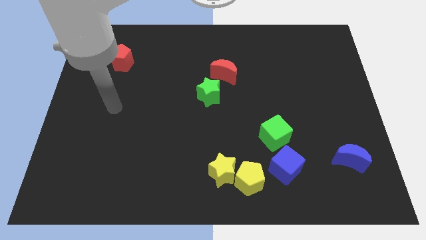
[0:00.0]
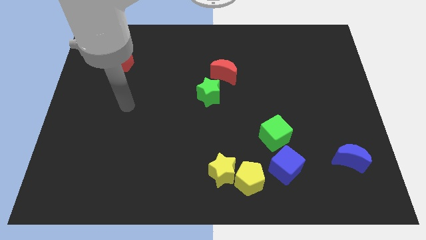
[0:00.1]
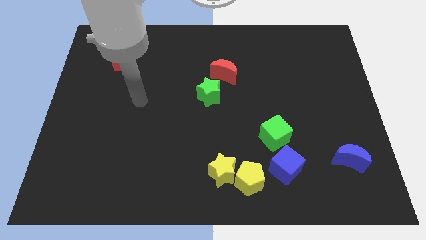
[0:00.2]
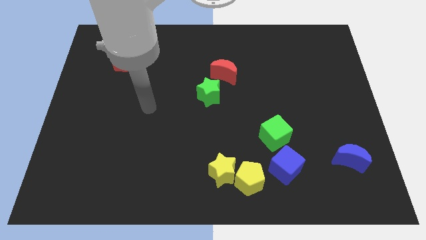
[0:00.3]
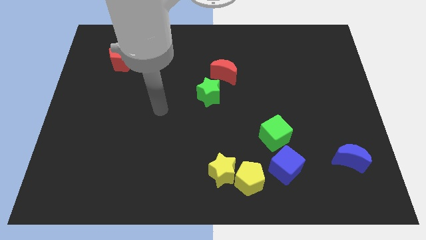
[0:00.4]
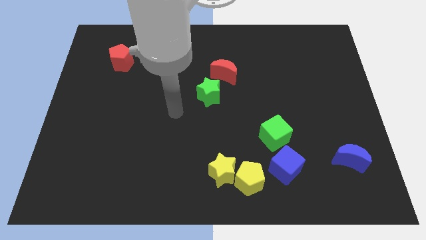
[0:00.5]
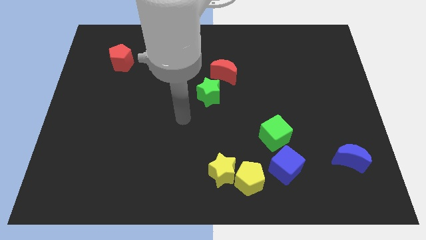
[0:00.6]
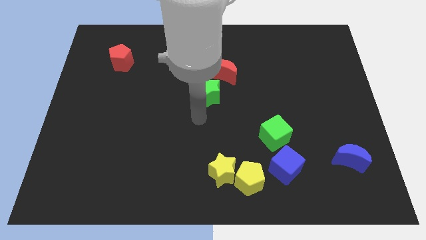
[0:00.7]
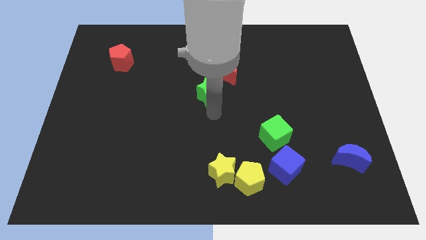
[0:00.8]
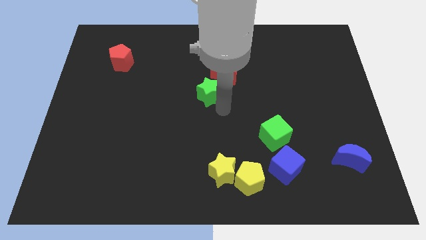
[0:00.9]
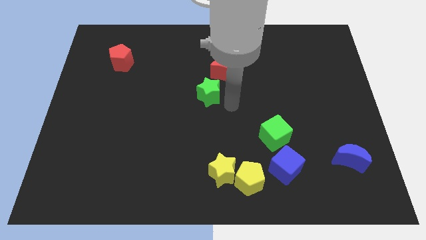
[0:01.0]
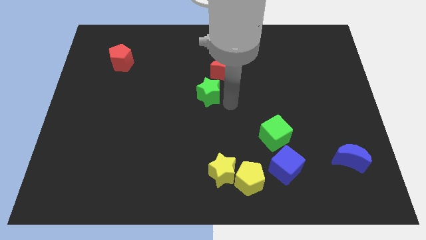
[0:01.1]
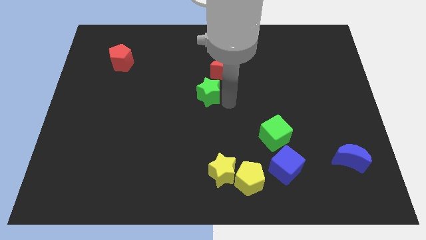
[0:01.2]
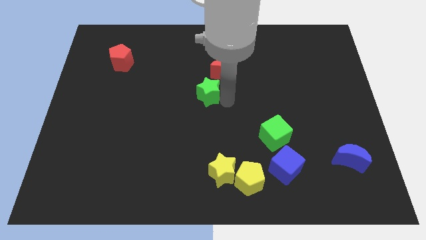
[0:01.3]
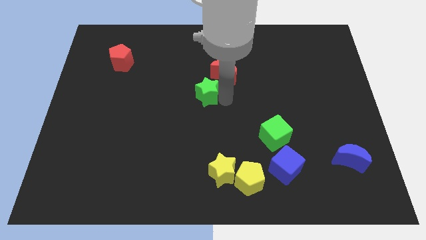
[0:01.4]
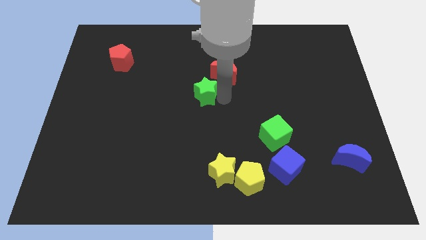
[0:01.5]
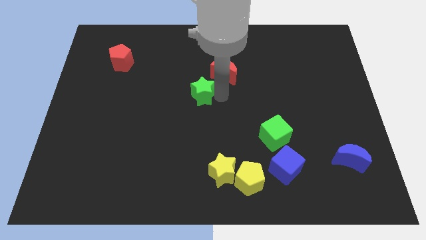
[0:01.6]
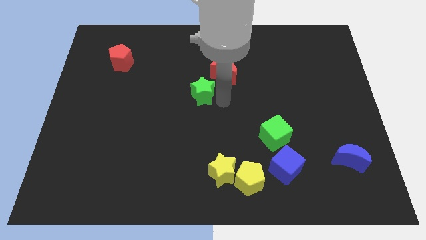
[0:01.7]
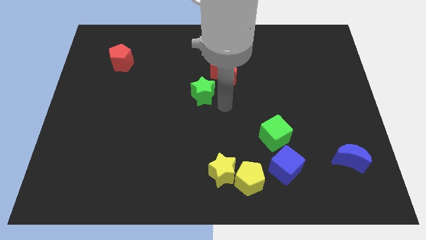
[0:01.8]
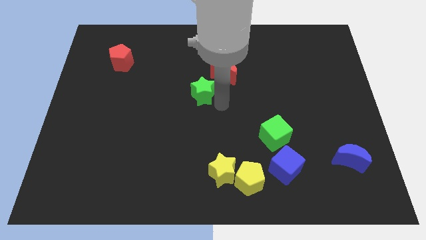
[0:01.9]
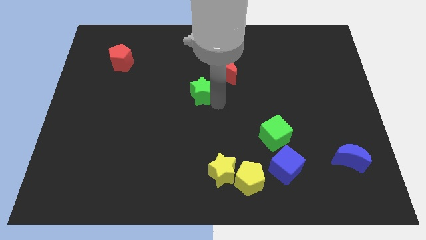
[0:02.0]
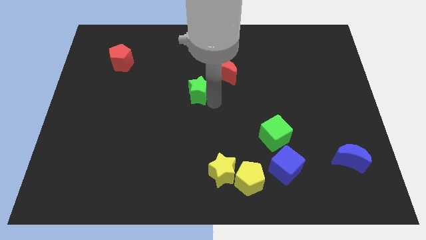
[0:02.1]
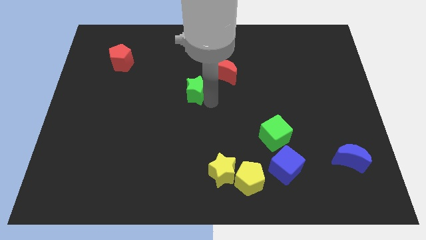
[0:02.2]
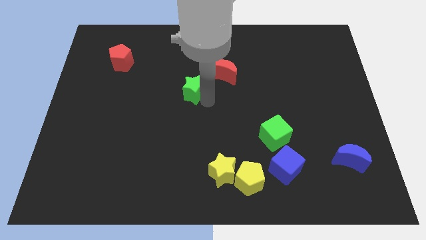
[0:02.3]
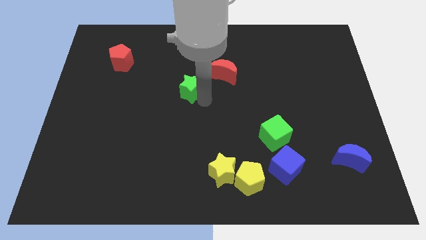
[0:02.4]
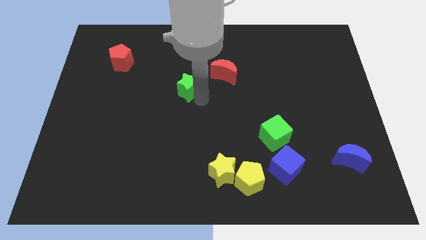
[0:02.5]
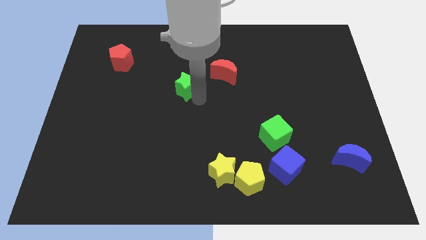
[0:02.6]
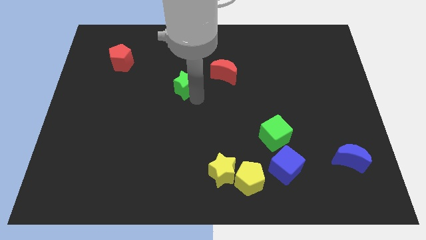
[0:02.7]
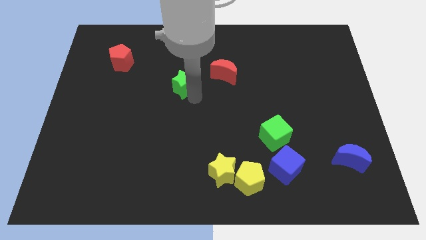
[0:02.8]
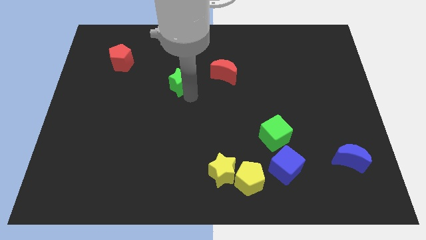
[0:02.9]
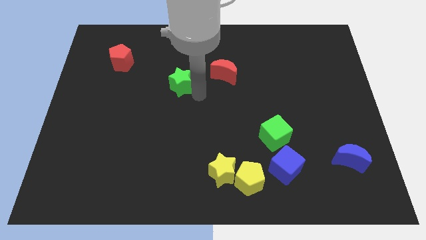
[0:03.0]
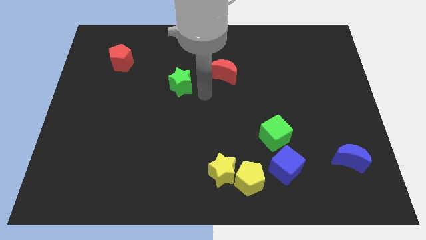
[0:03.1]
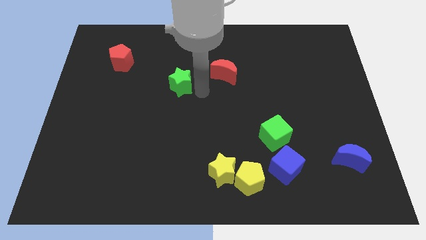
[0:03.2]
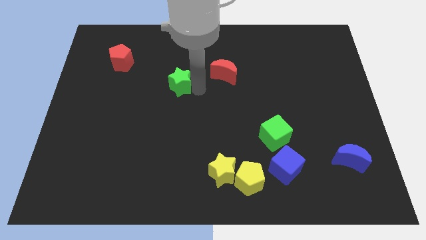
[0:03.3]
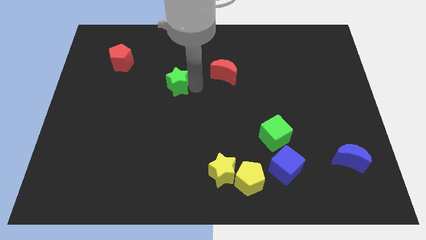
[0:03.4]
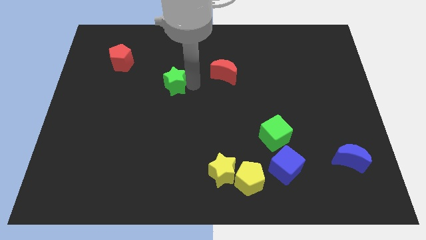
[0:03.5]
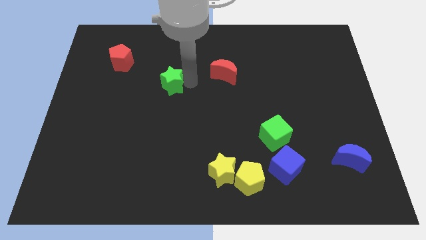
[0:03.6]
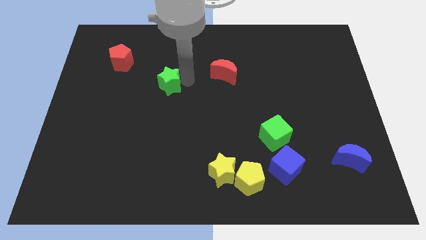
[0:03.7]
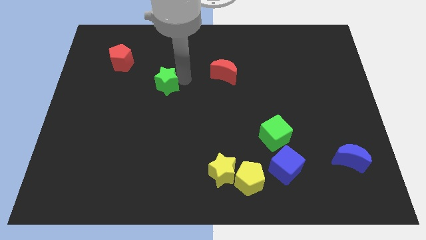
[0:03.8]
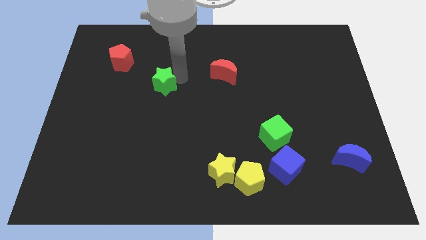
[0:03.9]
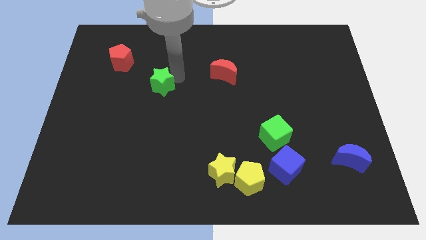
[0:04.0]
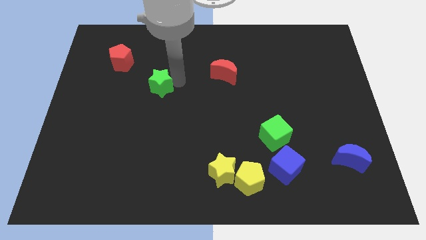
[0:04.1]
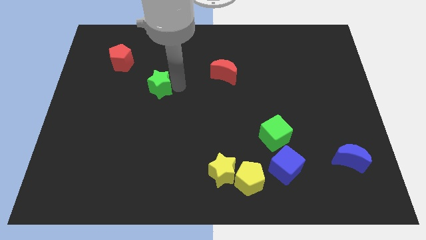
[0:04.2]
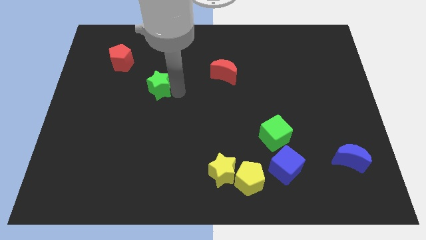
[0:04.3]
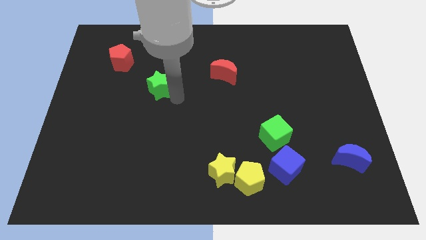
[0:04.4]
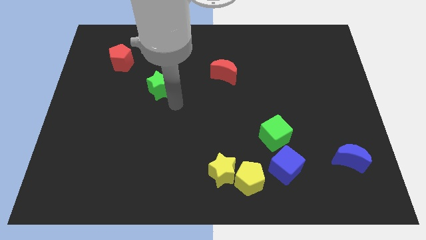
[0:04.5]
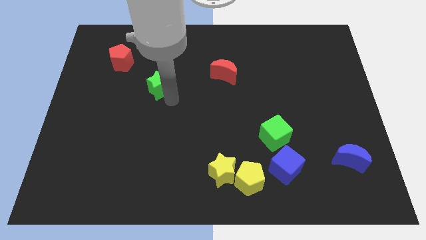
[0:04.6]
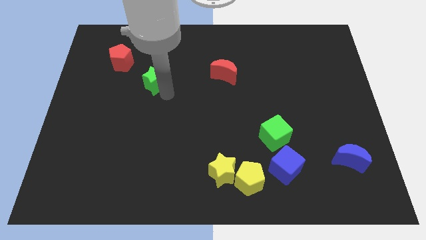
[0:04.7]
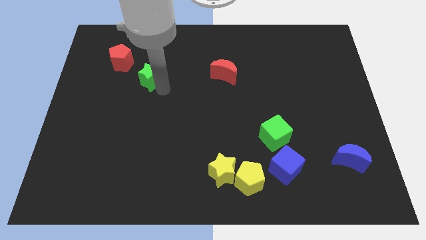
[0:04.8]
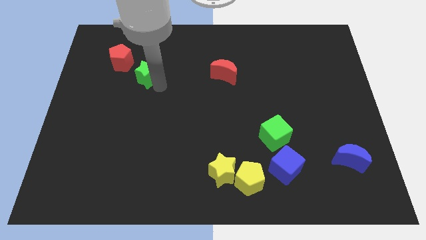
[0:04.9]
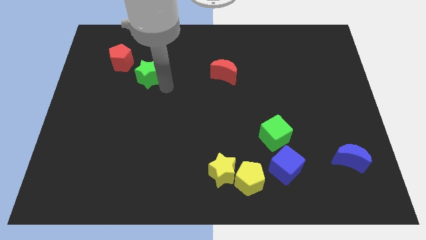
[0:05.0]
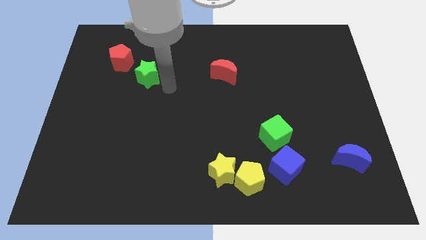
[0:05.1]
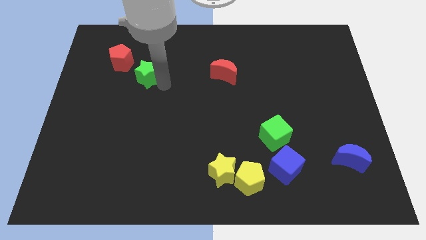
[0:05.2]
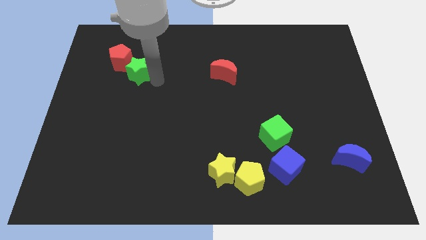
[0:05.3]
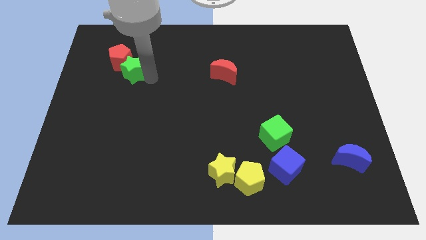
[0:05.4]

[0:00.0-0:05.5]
move the green star close to the red pentagon

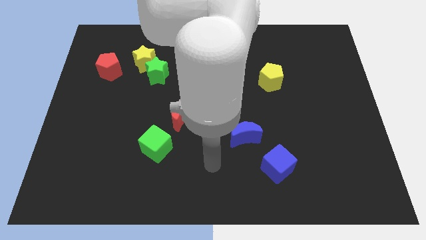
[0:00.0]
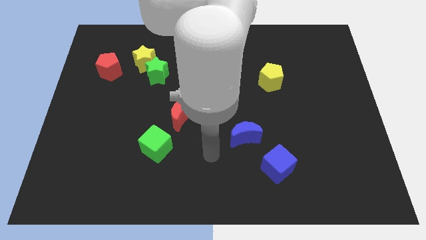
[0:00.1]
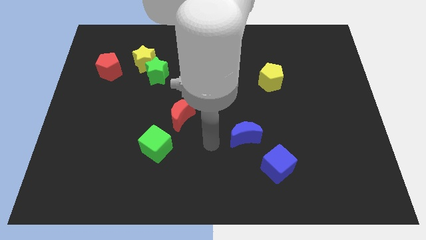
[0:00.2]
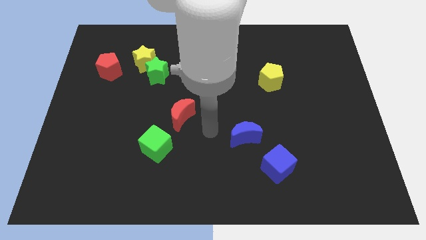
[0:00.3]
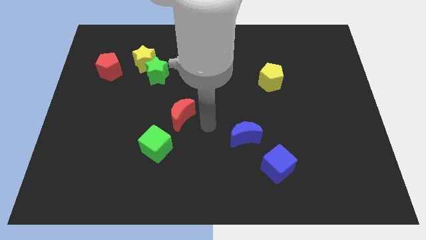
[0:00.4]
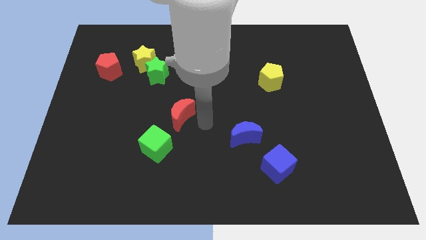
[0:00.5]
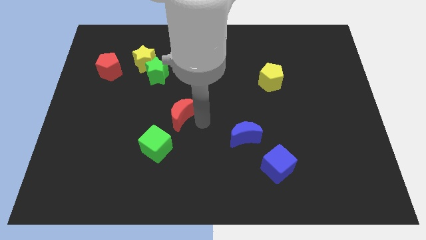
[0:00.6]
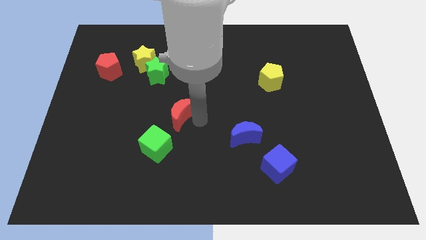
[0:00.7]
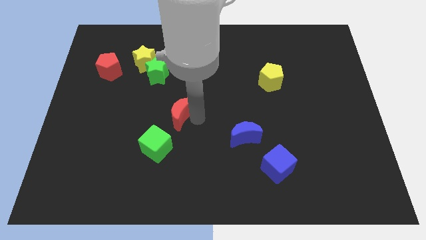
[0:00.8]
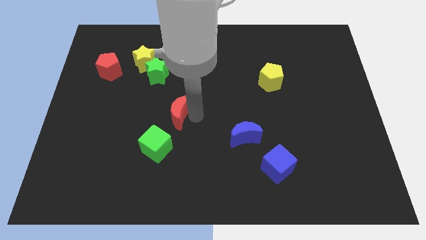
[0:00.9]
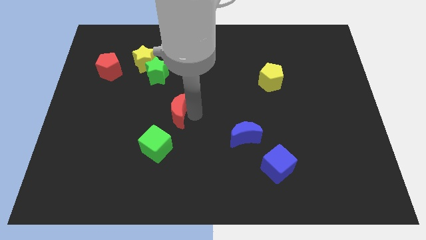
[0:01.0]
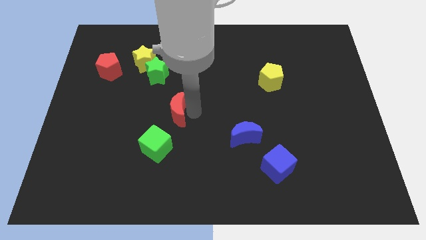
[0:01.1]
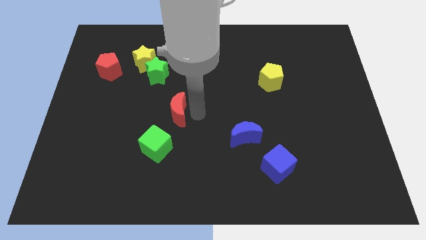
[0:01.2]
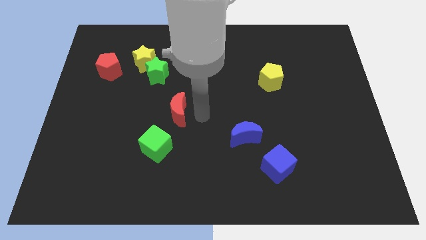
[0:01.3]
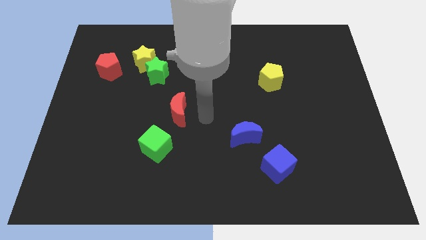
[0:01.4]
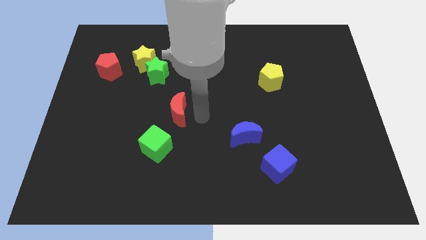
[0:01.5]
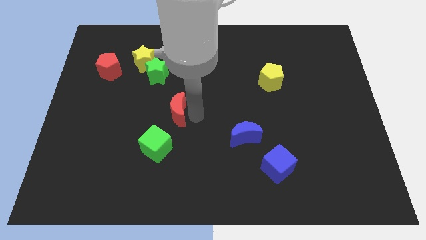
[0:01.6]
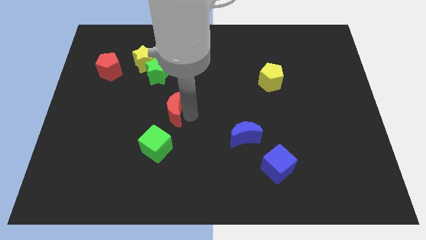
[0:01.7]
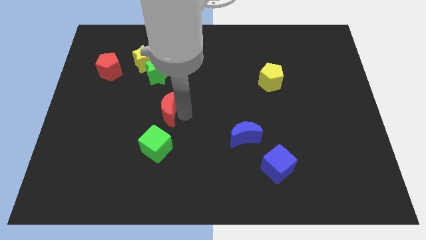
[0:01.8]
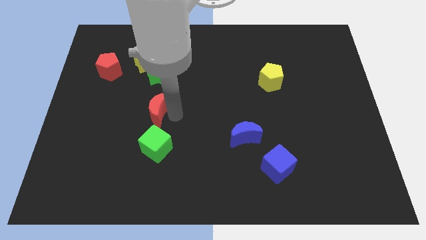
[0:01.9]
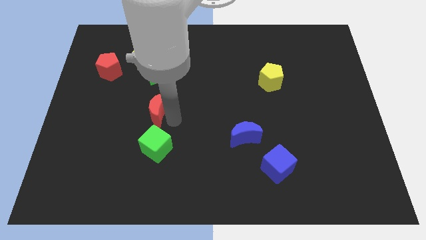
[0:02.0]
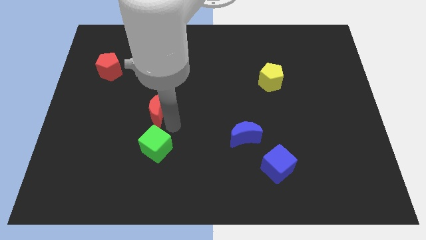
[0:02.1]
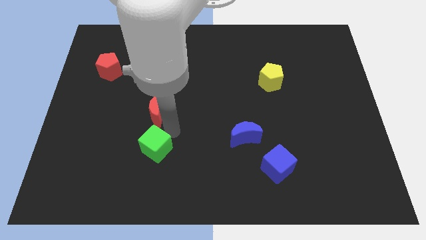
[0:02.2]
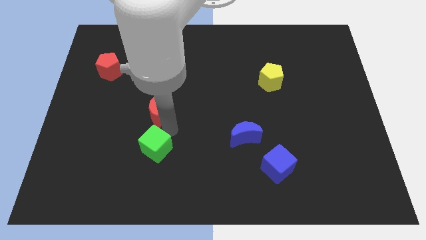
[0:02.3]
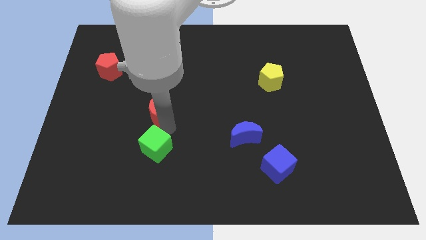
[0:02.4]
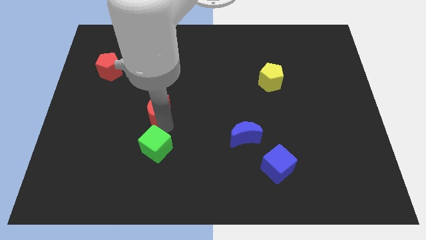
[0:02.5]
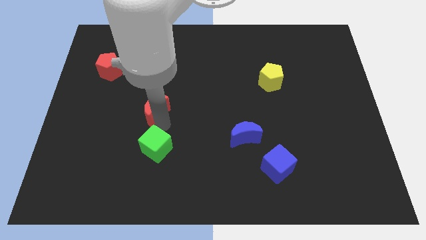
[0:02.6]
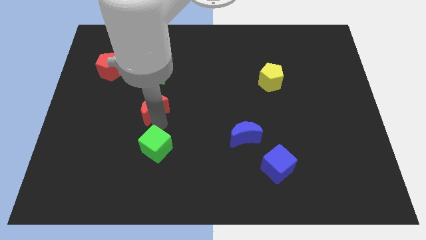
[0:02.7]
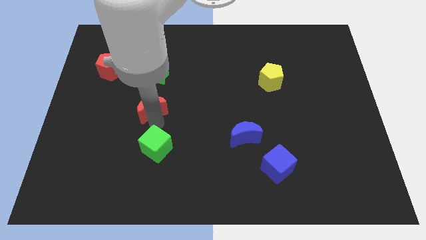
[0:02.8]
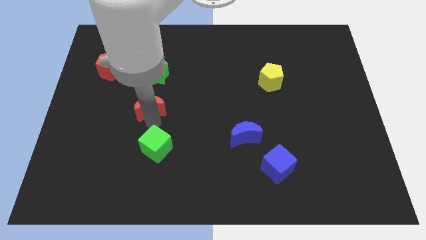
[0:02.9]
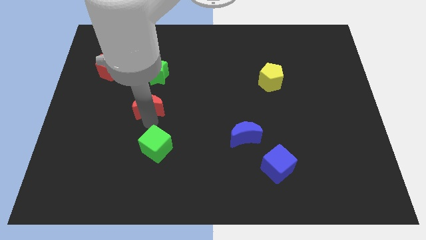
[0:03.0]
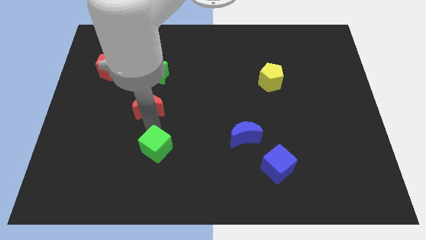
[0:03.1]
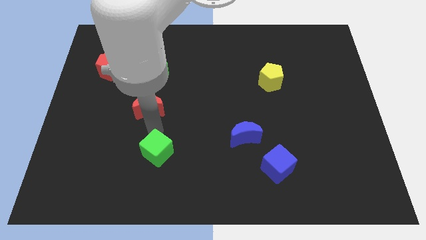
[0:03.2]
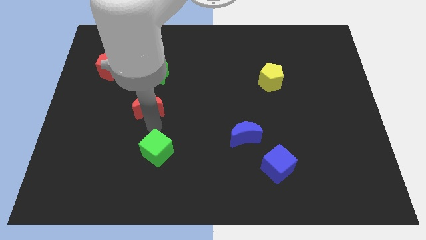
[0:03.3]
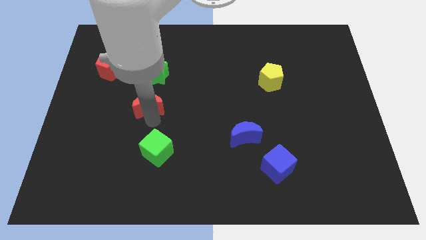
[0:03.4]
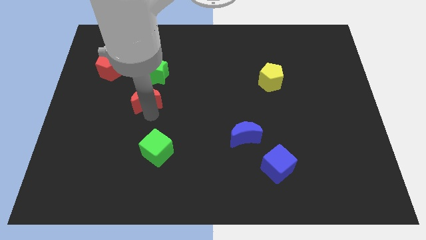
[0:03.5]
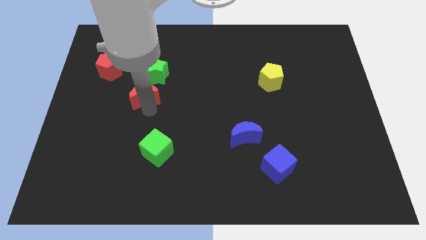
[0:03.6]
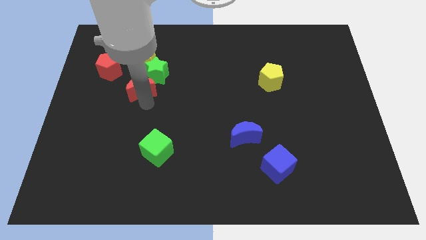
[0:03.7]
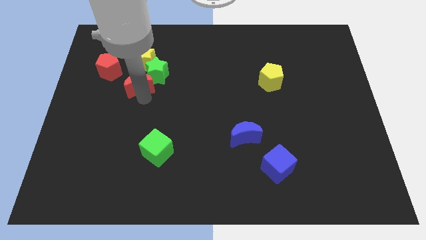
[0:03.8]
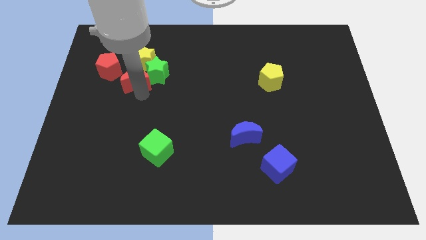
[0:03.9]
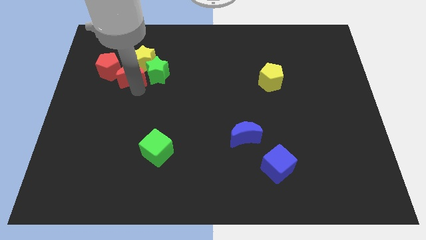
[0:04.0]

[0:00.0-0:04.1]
slide the red moon to the yellow star
